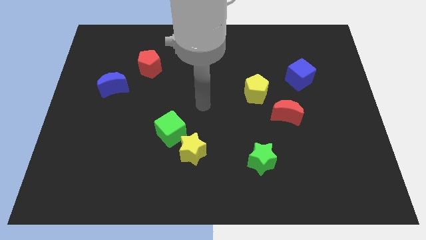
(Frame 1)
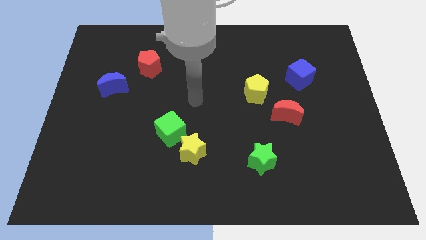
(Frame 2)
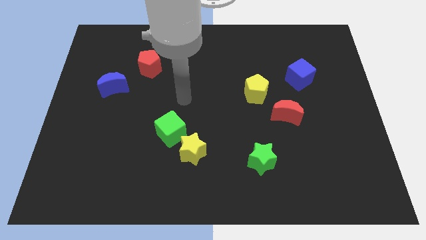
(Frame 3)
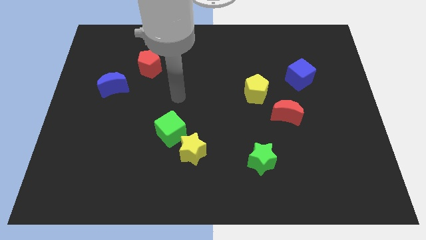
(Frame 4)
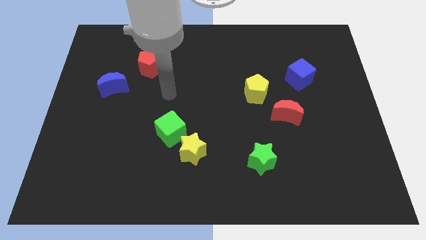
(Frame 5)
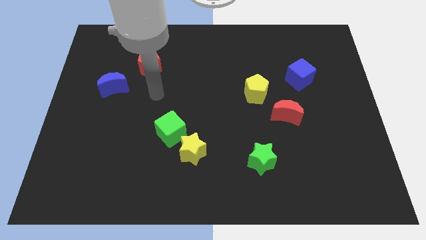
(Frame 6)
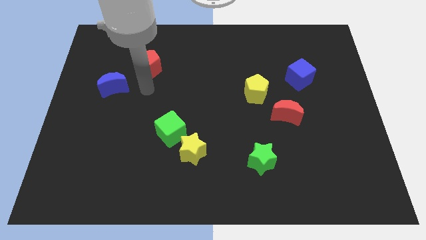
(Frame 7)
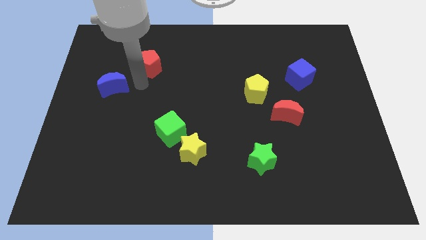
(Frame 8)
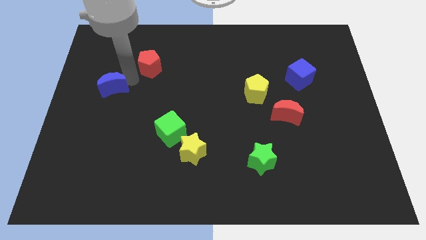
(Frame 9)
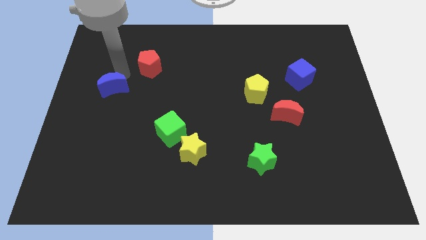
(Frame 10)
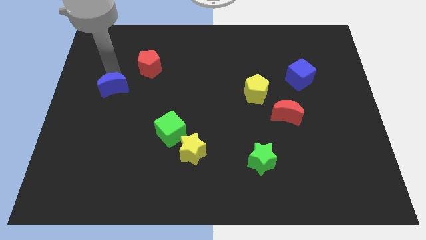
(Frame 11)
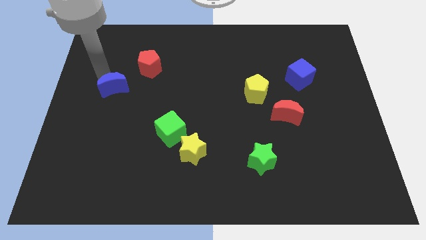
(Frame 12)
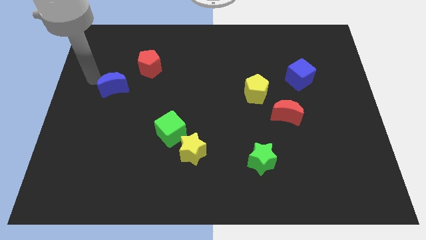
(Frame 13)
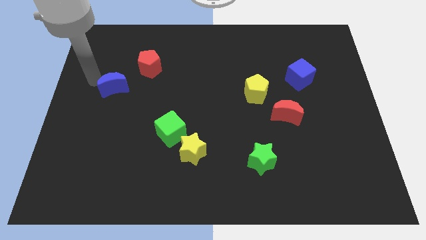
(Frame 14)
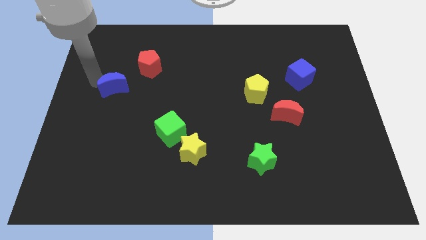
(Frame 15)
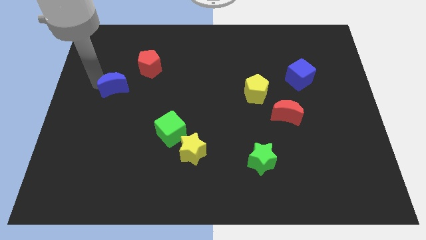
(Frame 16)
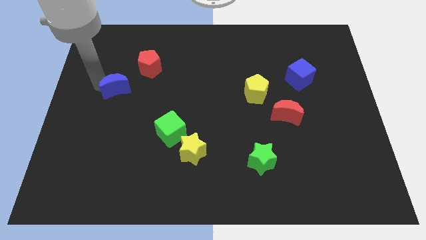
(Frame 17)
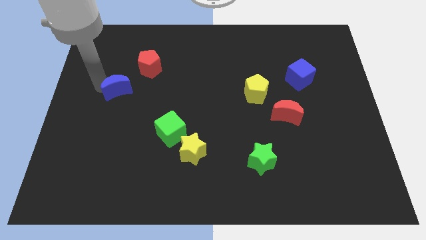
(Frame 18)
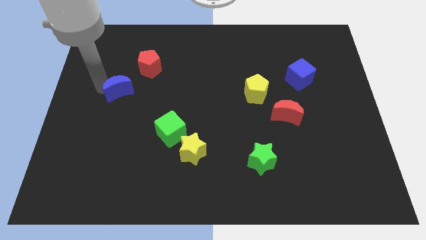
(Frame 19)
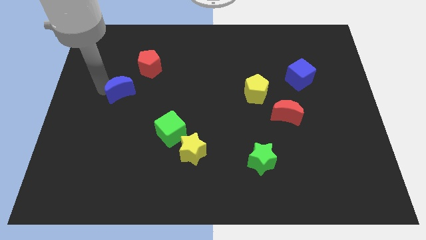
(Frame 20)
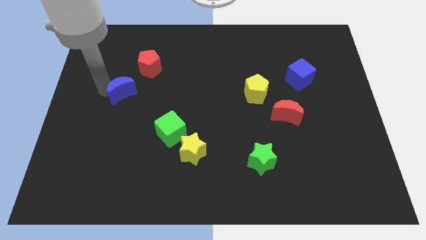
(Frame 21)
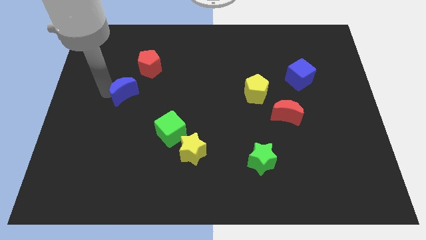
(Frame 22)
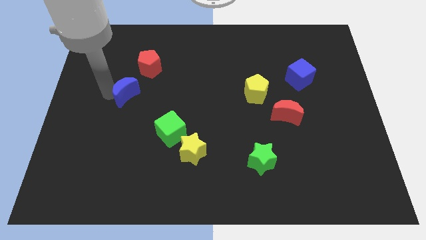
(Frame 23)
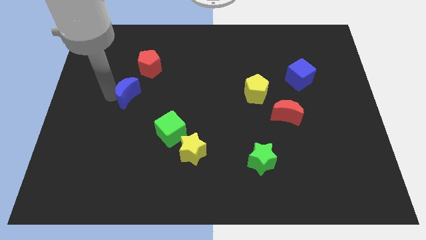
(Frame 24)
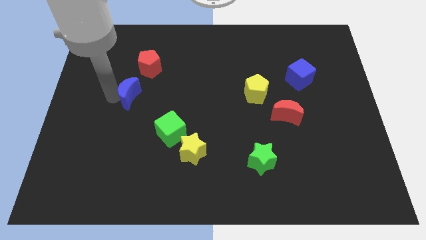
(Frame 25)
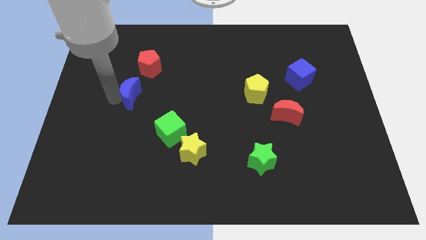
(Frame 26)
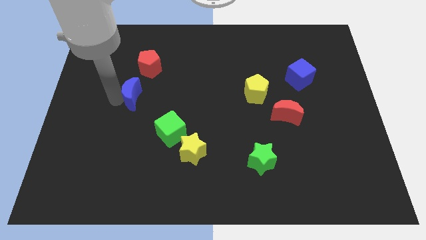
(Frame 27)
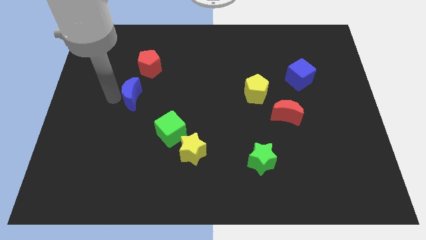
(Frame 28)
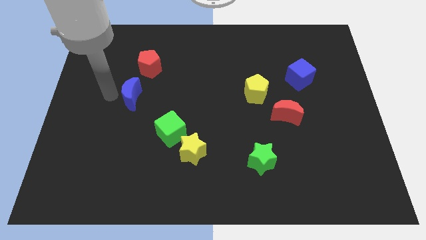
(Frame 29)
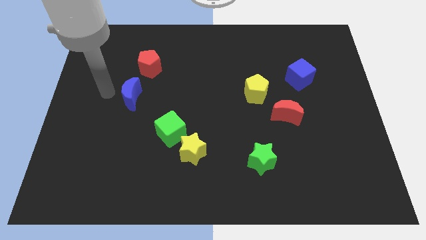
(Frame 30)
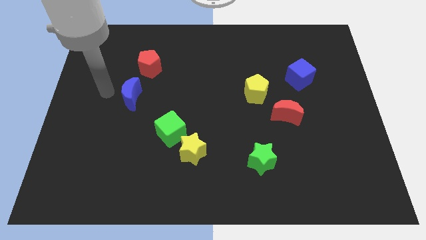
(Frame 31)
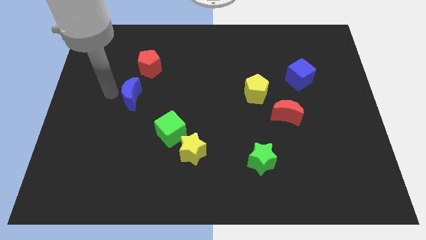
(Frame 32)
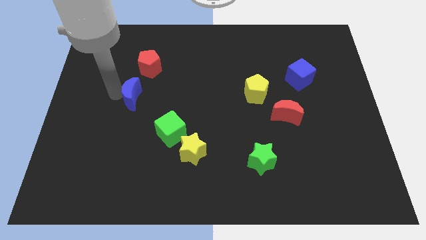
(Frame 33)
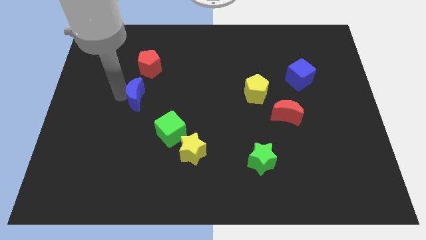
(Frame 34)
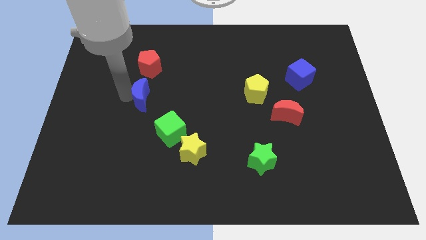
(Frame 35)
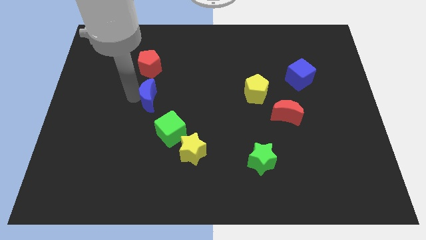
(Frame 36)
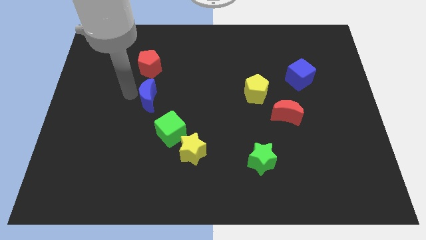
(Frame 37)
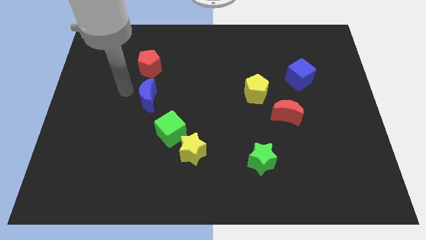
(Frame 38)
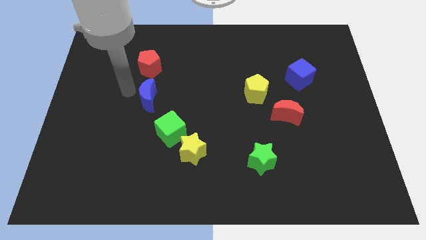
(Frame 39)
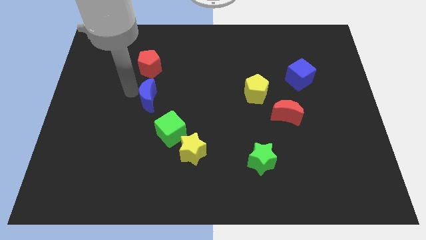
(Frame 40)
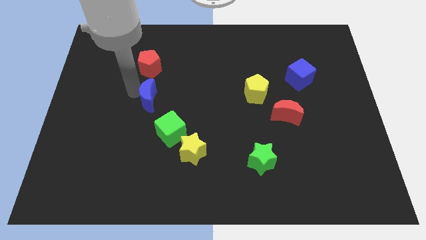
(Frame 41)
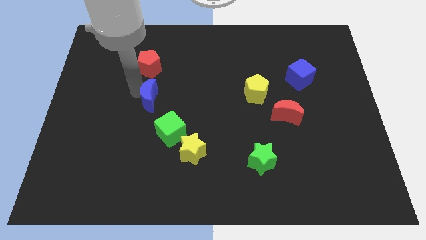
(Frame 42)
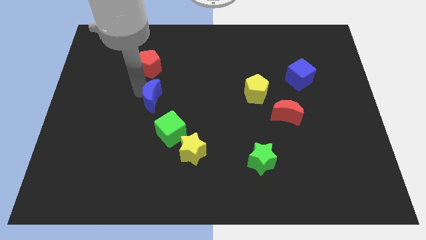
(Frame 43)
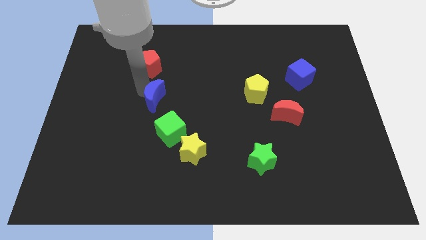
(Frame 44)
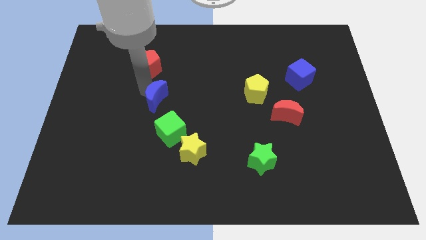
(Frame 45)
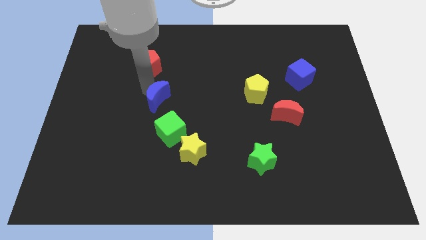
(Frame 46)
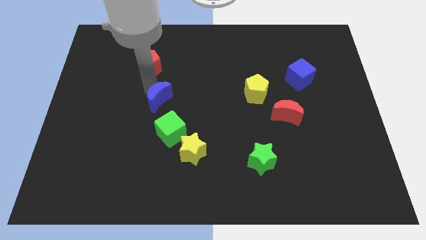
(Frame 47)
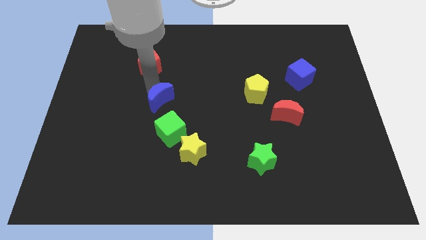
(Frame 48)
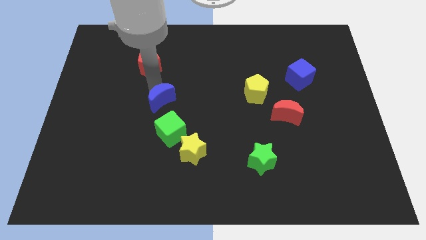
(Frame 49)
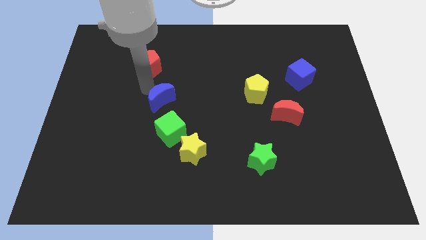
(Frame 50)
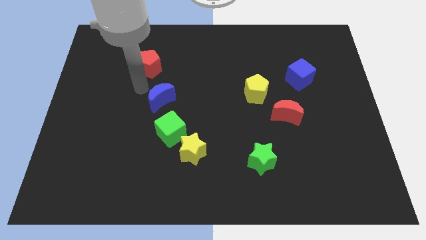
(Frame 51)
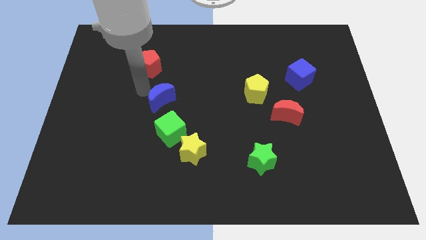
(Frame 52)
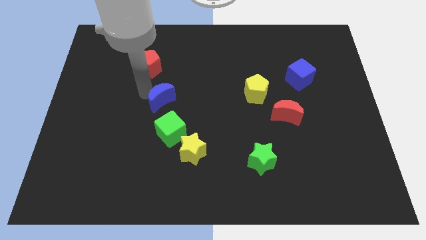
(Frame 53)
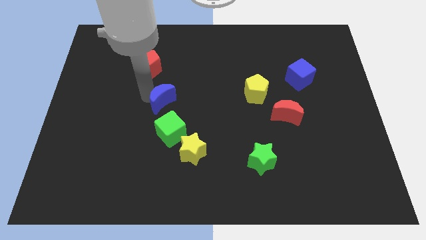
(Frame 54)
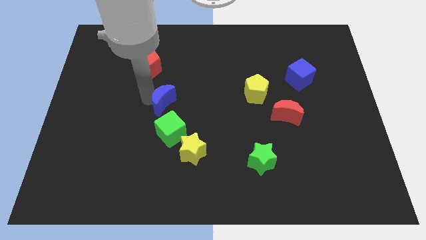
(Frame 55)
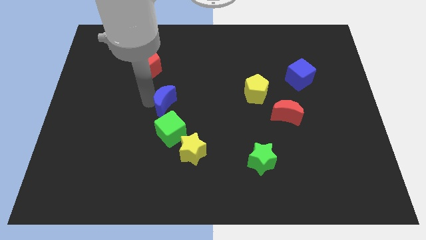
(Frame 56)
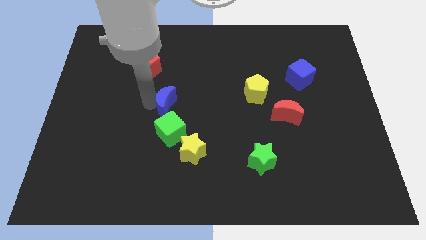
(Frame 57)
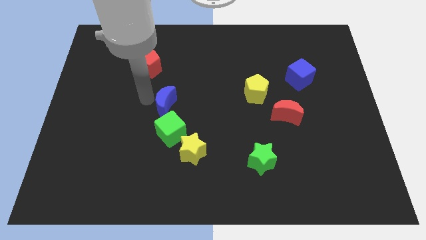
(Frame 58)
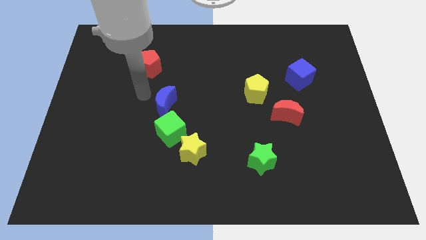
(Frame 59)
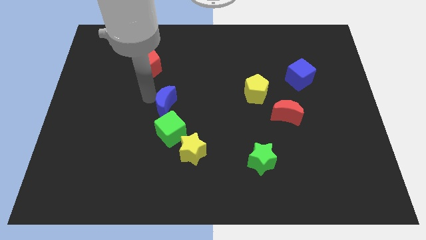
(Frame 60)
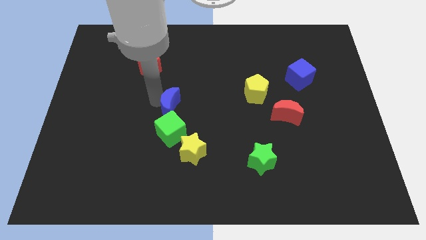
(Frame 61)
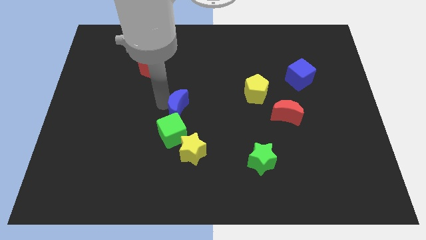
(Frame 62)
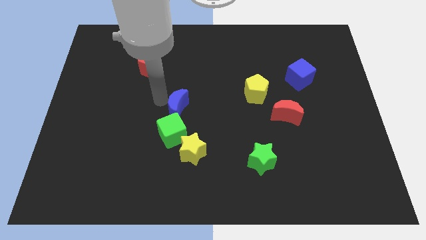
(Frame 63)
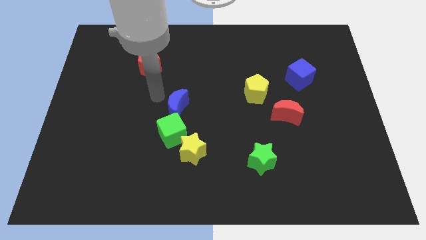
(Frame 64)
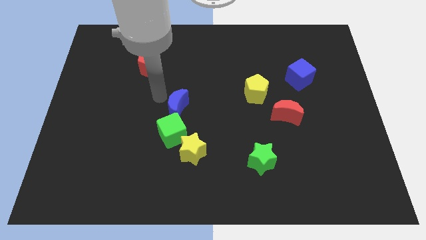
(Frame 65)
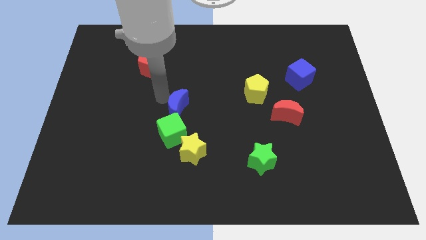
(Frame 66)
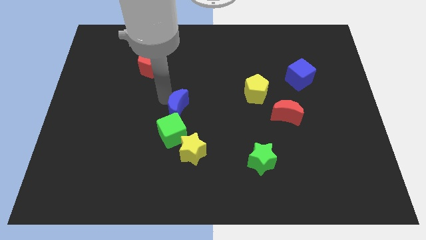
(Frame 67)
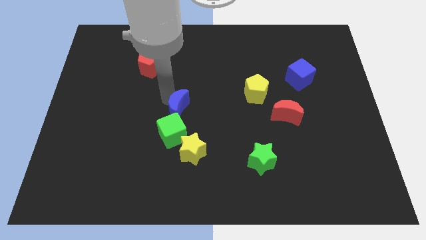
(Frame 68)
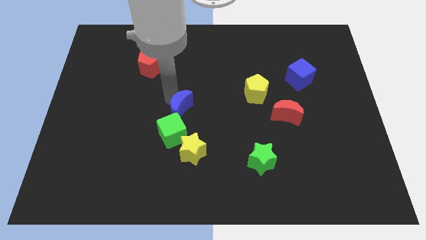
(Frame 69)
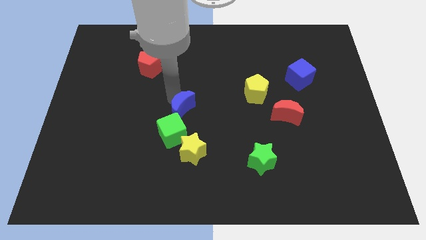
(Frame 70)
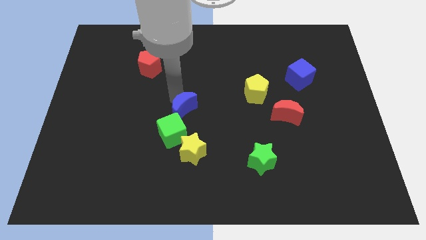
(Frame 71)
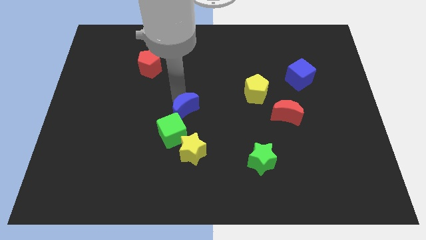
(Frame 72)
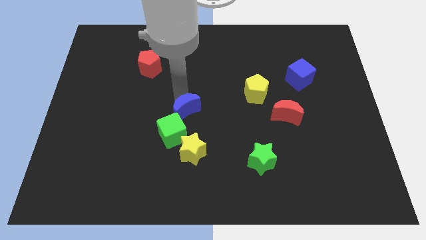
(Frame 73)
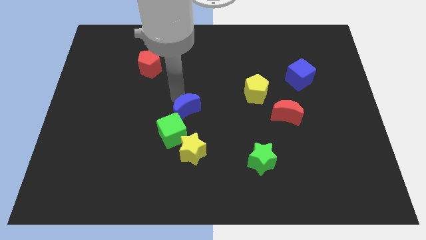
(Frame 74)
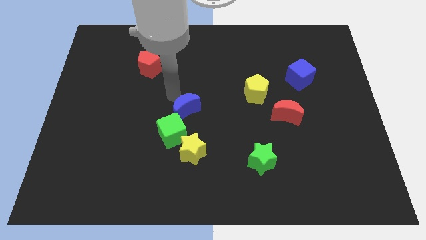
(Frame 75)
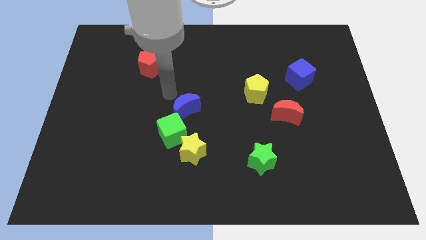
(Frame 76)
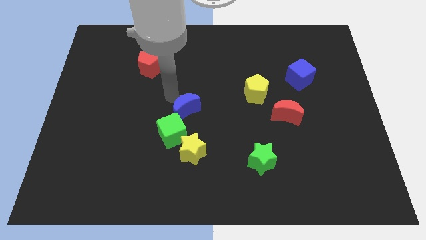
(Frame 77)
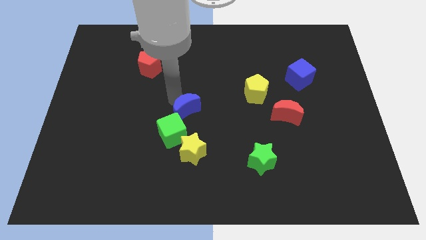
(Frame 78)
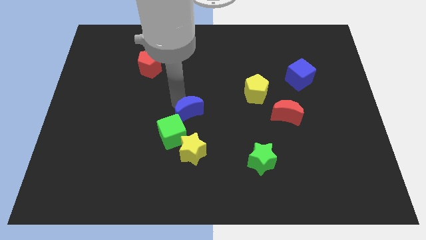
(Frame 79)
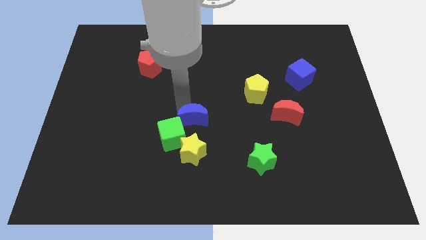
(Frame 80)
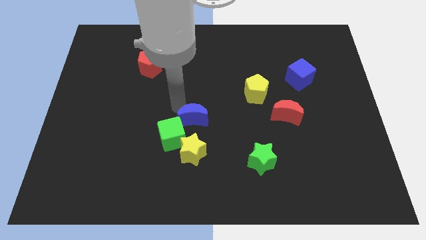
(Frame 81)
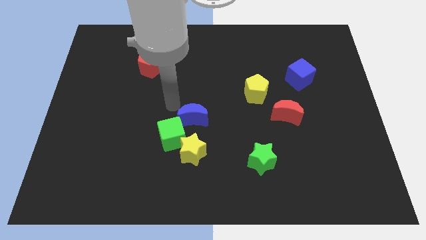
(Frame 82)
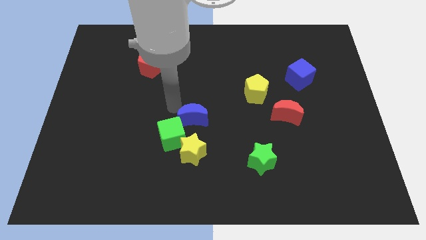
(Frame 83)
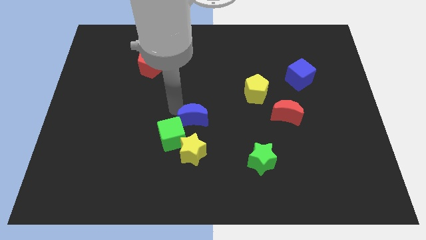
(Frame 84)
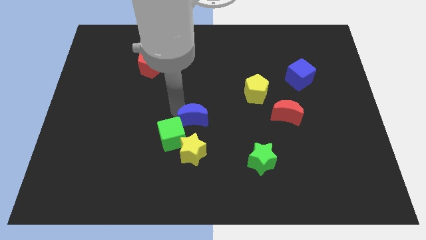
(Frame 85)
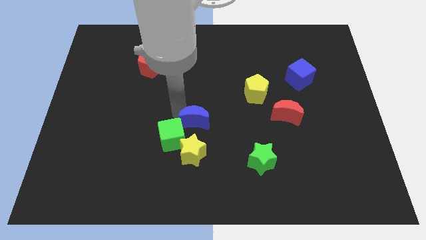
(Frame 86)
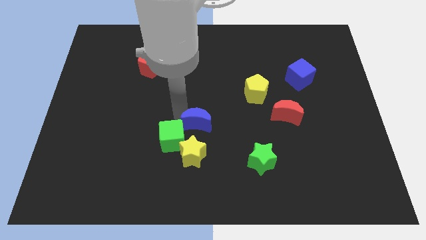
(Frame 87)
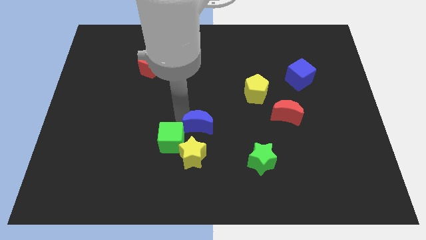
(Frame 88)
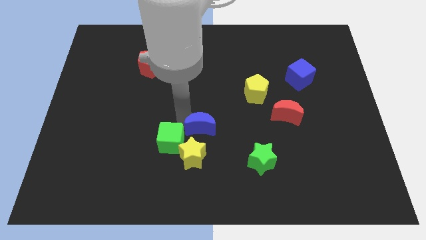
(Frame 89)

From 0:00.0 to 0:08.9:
move the blue moon to the top right side of the yellow star
